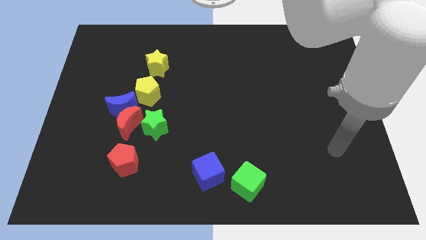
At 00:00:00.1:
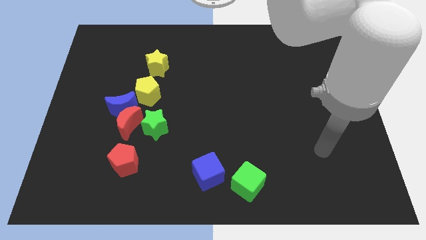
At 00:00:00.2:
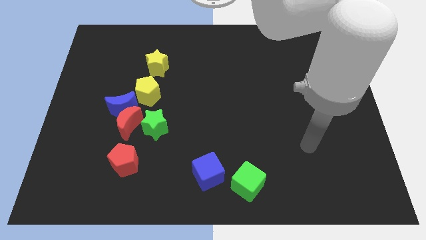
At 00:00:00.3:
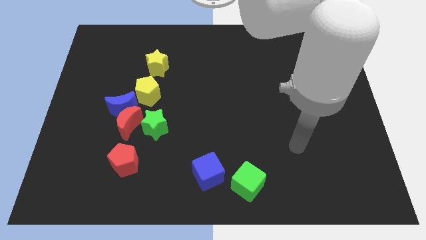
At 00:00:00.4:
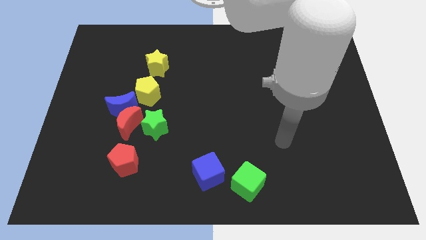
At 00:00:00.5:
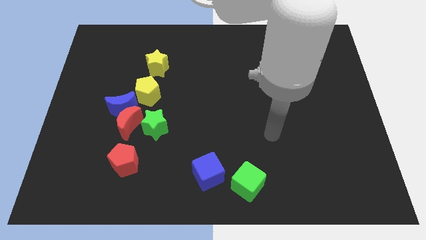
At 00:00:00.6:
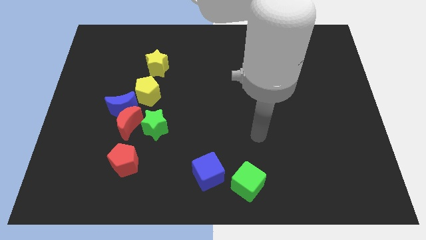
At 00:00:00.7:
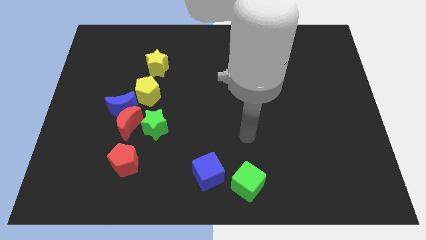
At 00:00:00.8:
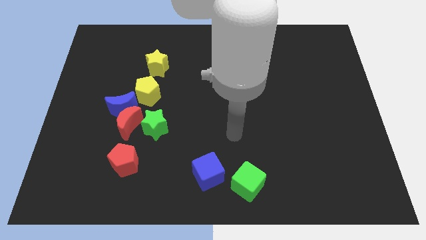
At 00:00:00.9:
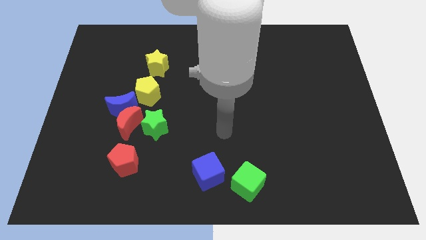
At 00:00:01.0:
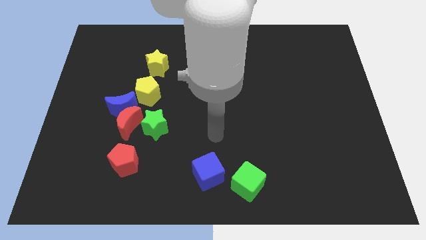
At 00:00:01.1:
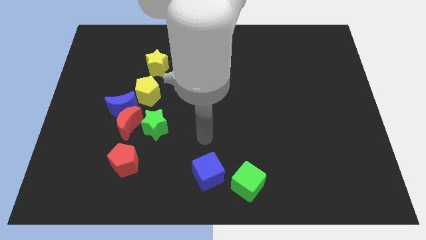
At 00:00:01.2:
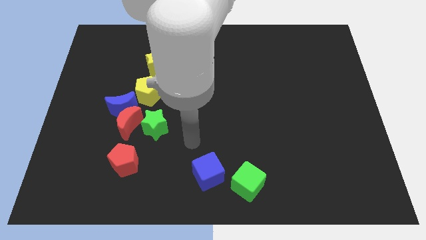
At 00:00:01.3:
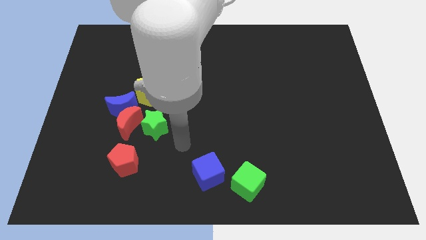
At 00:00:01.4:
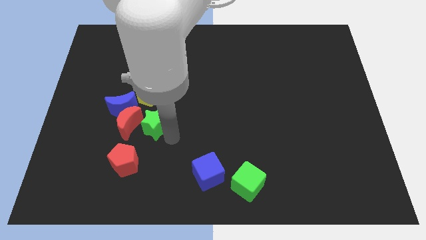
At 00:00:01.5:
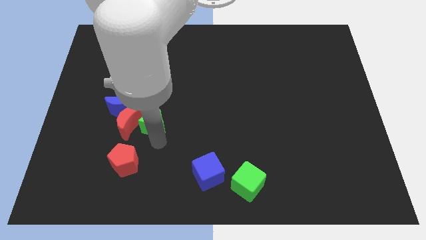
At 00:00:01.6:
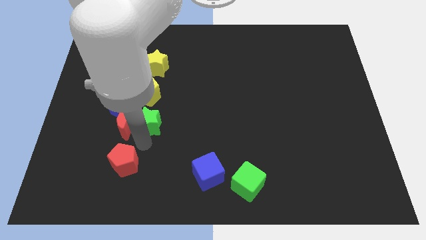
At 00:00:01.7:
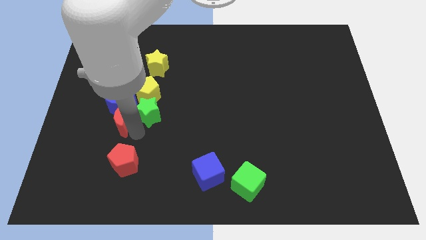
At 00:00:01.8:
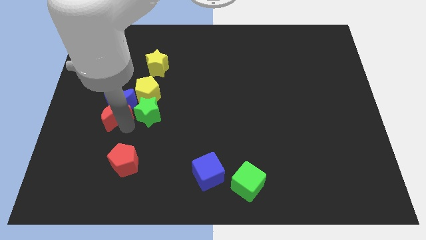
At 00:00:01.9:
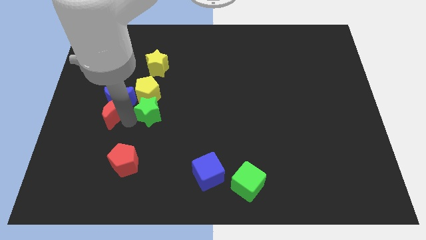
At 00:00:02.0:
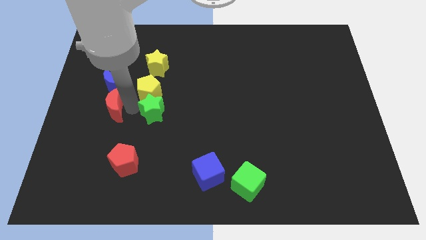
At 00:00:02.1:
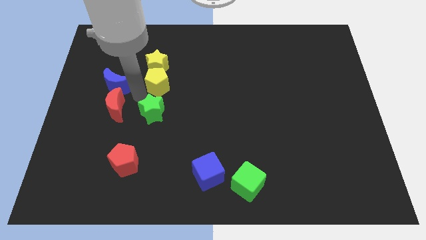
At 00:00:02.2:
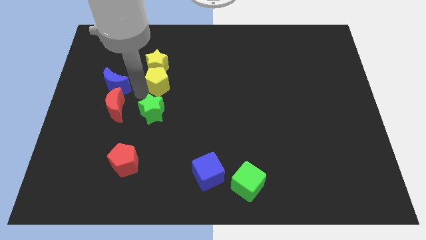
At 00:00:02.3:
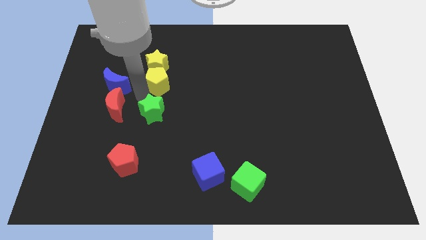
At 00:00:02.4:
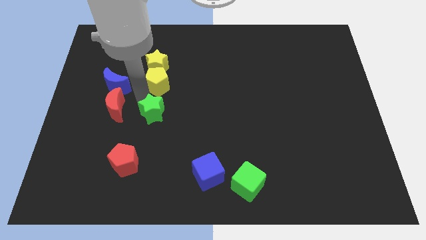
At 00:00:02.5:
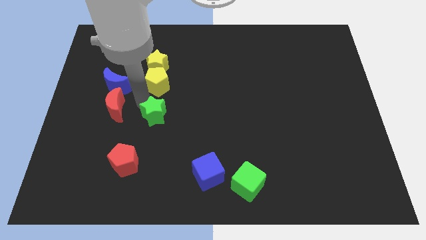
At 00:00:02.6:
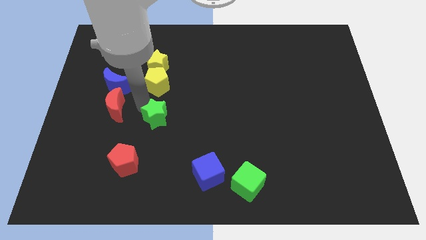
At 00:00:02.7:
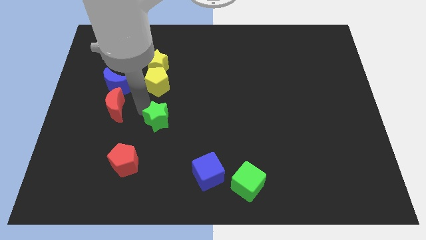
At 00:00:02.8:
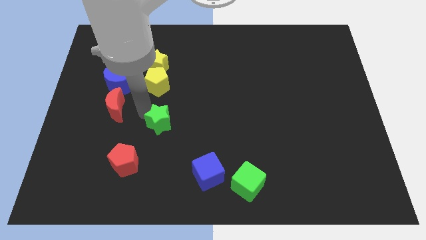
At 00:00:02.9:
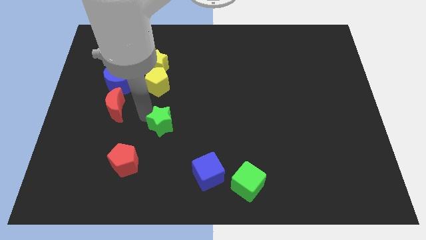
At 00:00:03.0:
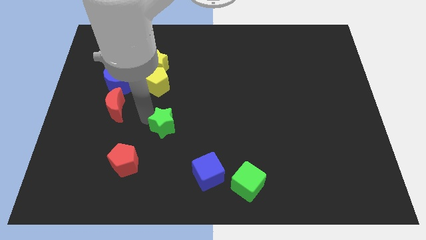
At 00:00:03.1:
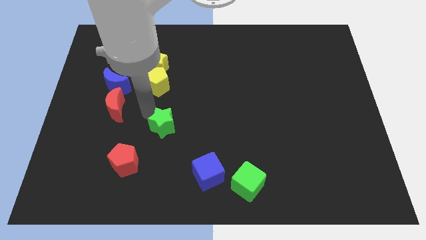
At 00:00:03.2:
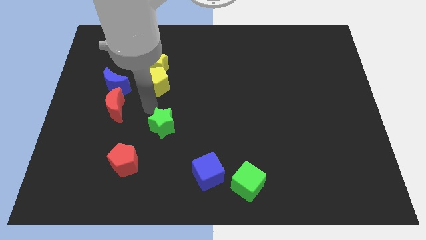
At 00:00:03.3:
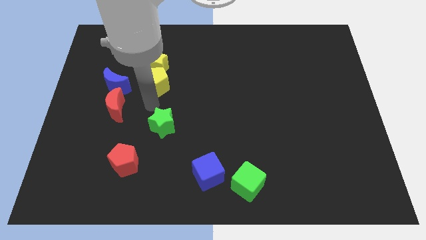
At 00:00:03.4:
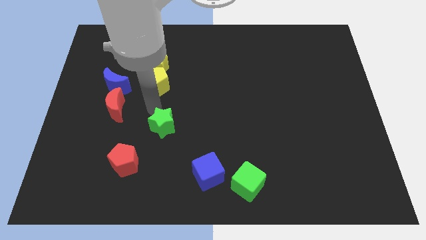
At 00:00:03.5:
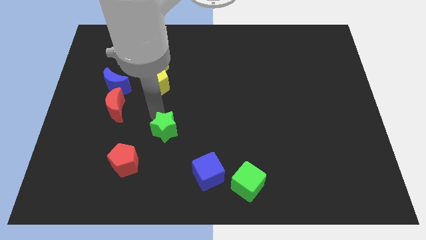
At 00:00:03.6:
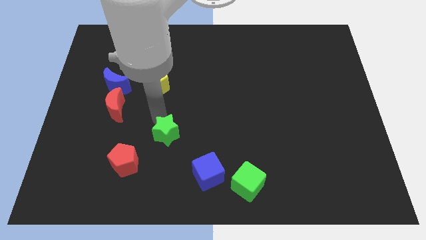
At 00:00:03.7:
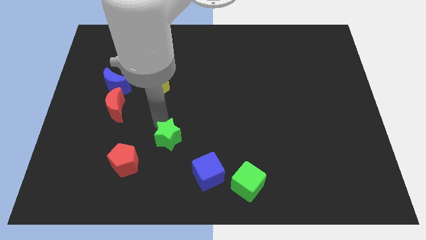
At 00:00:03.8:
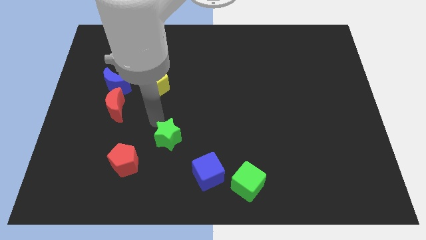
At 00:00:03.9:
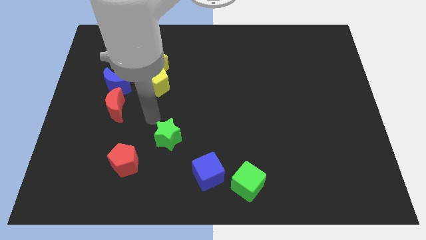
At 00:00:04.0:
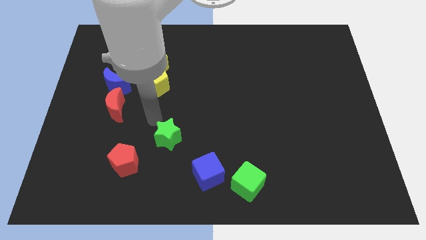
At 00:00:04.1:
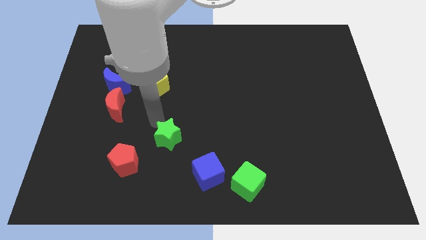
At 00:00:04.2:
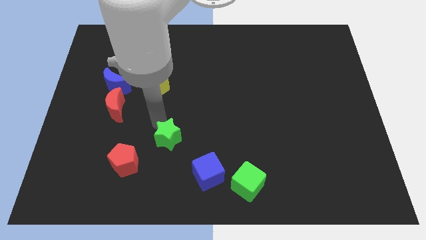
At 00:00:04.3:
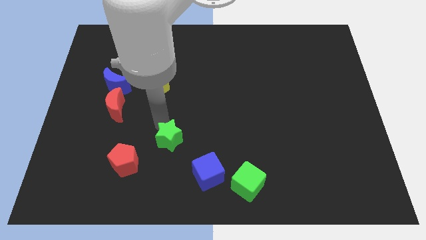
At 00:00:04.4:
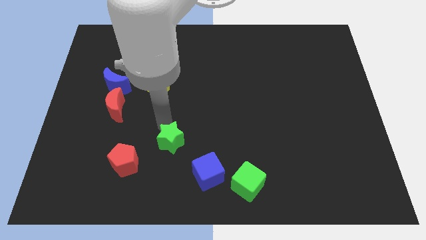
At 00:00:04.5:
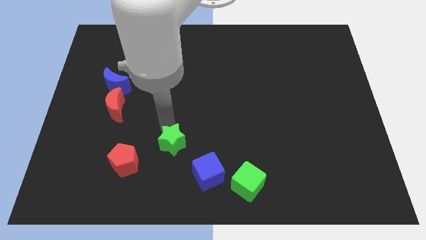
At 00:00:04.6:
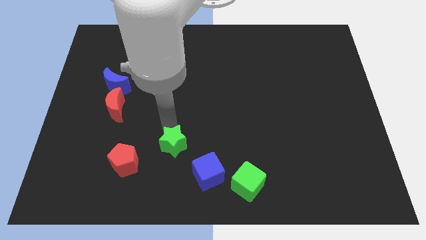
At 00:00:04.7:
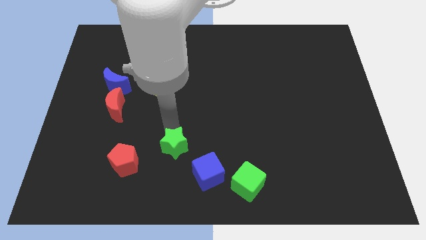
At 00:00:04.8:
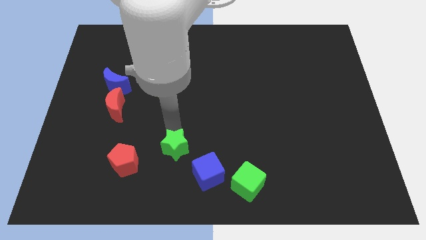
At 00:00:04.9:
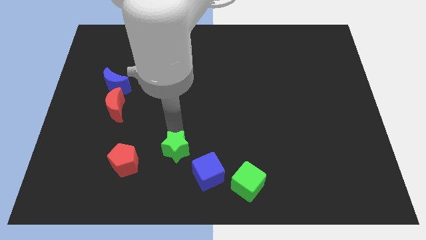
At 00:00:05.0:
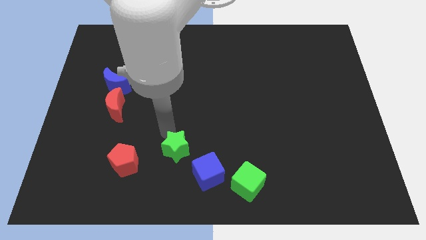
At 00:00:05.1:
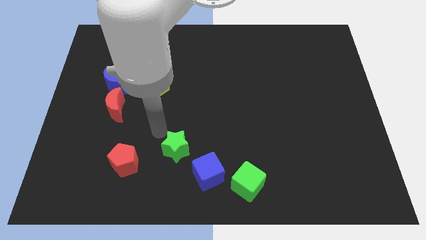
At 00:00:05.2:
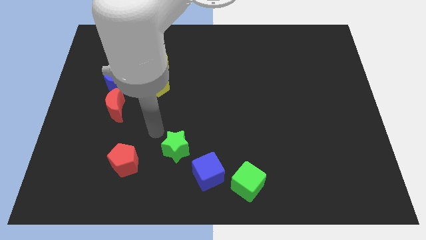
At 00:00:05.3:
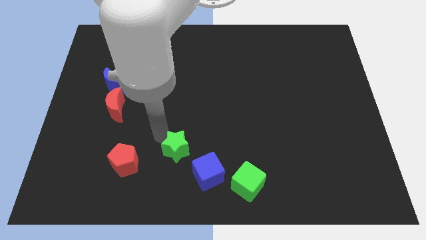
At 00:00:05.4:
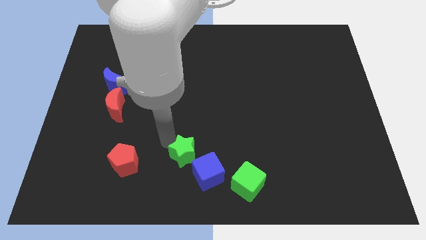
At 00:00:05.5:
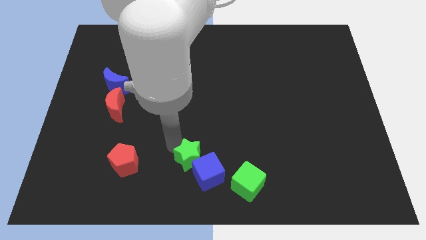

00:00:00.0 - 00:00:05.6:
slide the green star close to the blue cube

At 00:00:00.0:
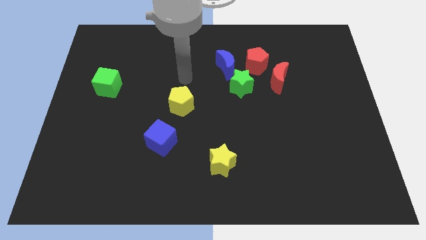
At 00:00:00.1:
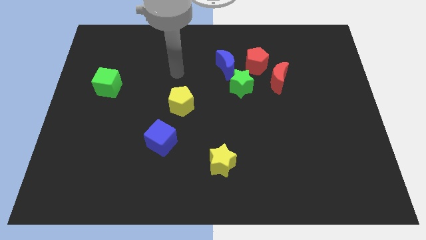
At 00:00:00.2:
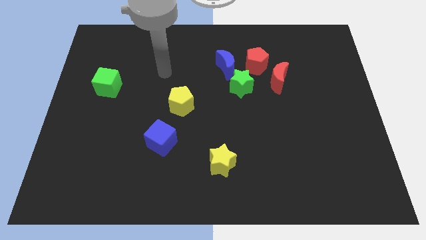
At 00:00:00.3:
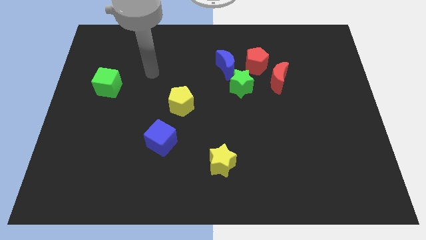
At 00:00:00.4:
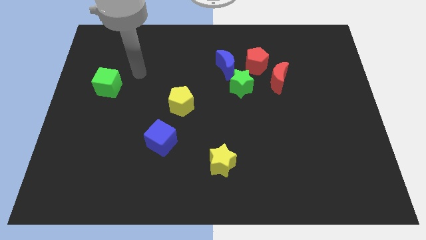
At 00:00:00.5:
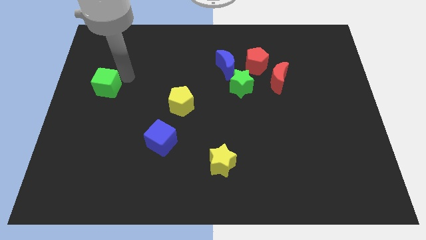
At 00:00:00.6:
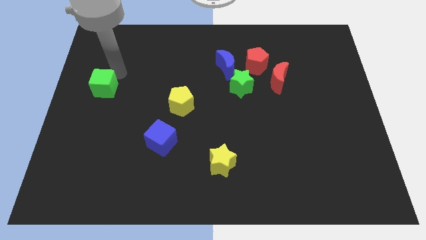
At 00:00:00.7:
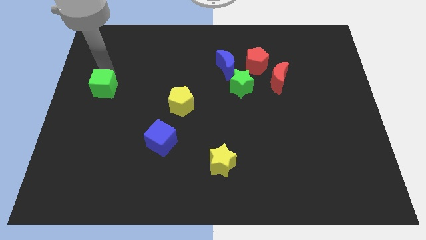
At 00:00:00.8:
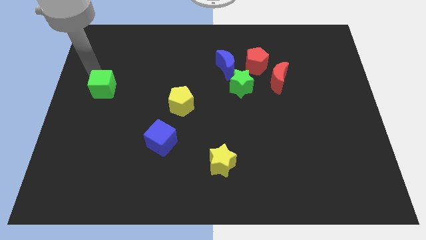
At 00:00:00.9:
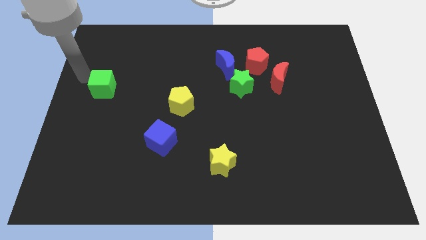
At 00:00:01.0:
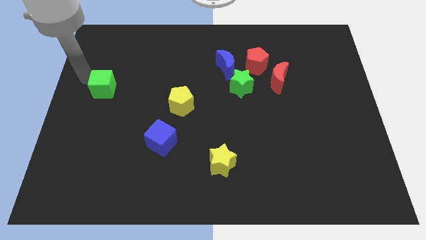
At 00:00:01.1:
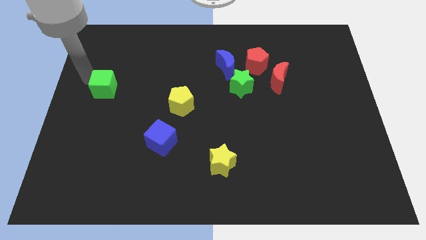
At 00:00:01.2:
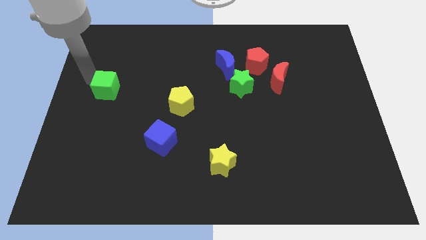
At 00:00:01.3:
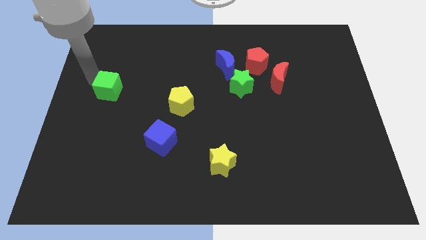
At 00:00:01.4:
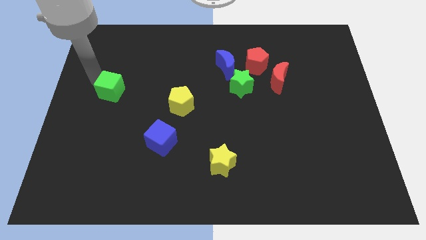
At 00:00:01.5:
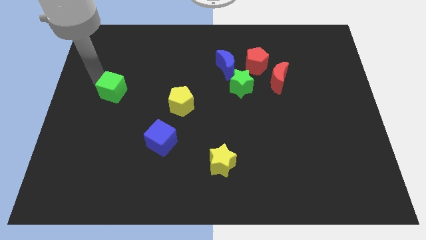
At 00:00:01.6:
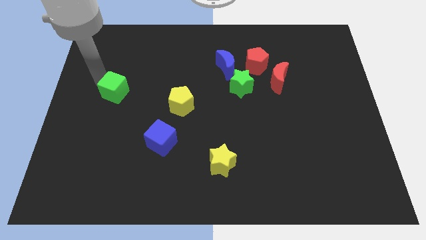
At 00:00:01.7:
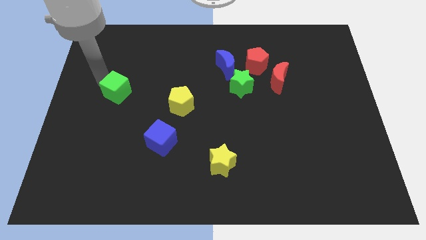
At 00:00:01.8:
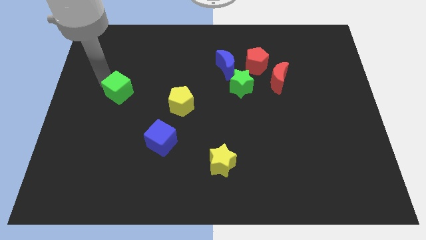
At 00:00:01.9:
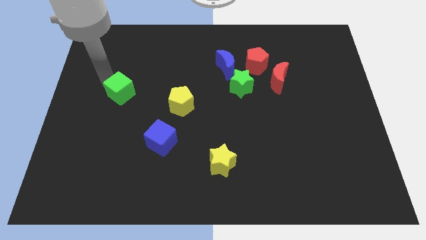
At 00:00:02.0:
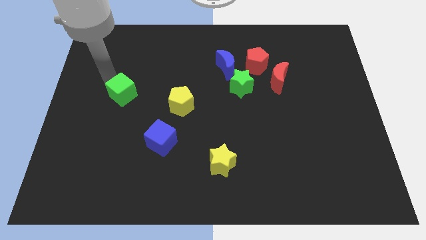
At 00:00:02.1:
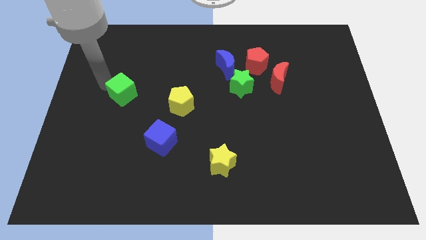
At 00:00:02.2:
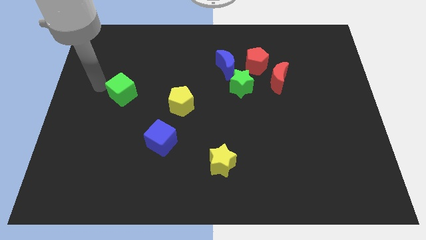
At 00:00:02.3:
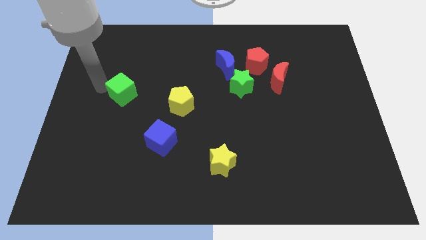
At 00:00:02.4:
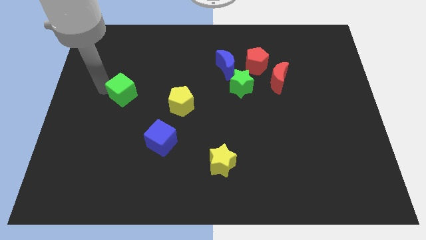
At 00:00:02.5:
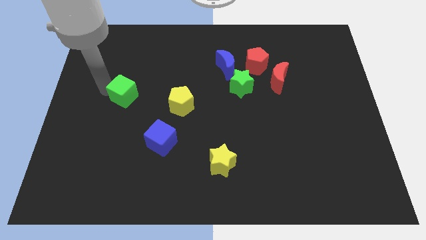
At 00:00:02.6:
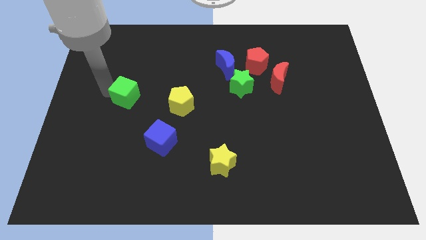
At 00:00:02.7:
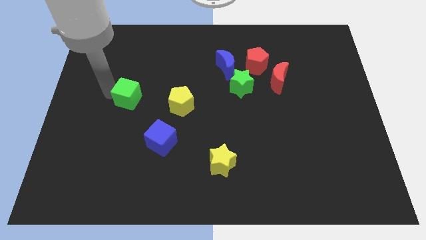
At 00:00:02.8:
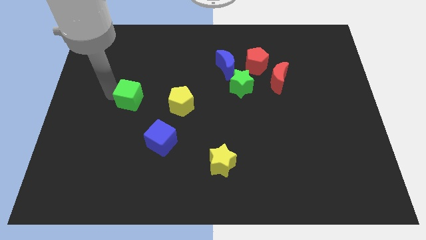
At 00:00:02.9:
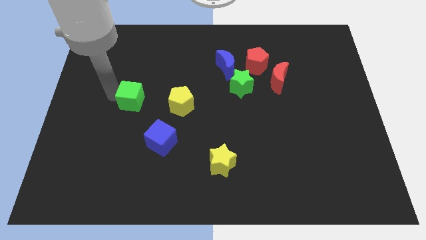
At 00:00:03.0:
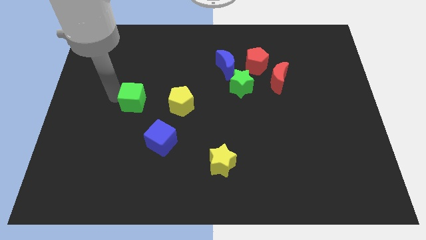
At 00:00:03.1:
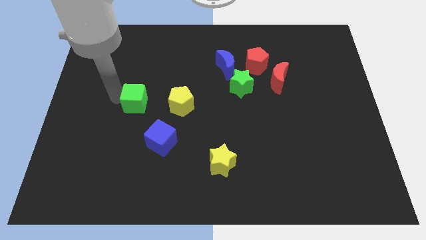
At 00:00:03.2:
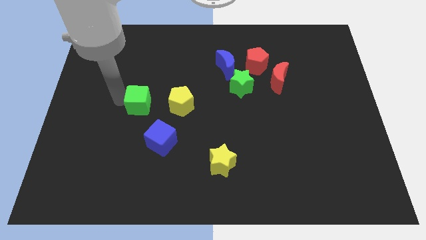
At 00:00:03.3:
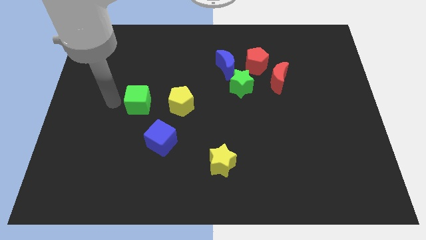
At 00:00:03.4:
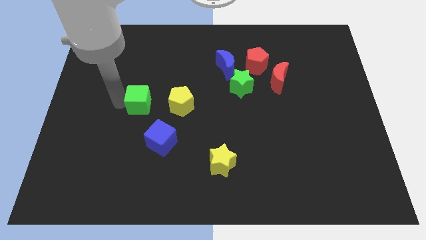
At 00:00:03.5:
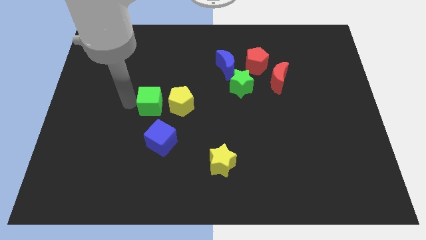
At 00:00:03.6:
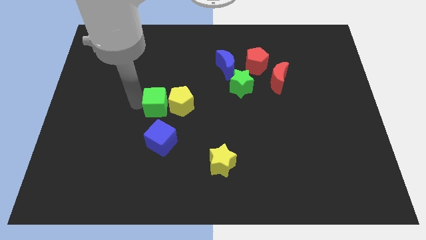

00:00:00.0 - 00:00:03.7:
push the green cube close to the yellow pentagon
